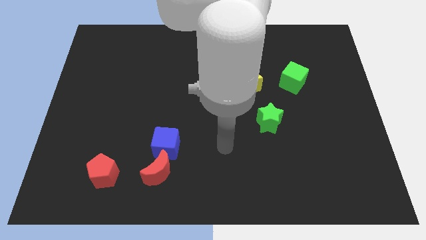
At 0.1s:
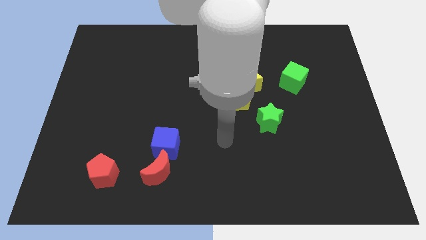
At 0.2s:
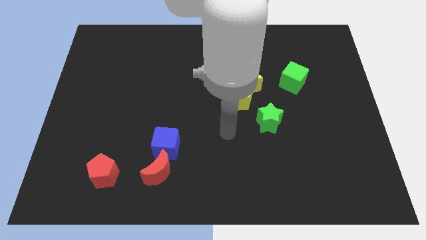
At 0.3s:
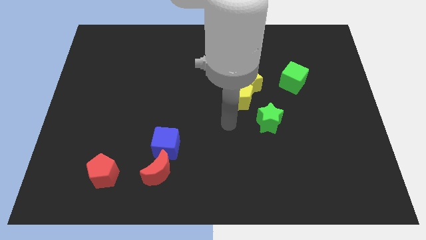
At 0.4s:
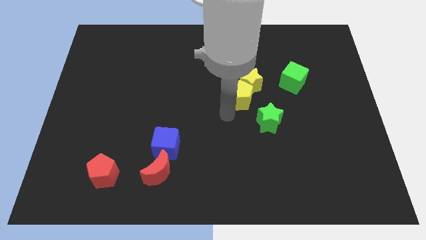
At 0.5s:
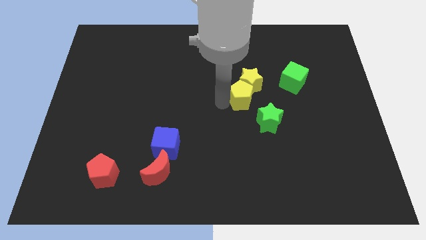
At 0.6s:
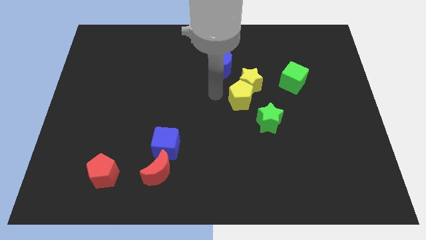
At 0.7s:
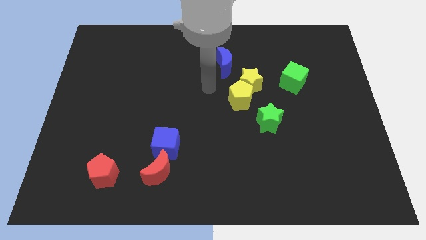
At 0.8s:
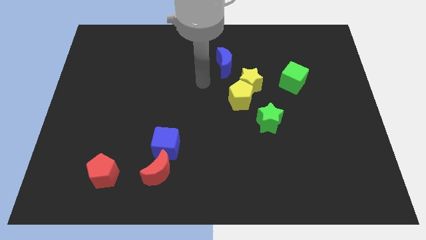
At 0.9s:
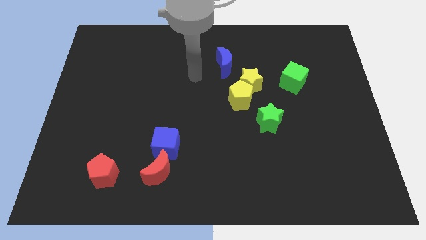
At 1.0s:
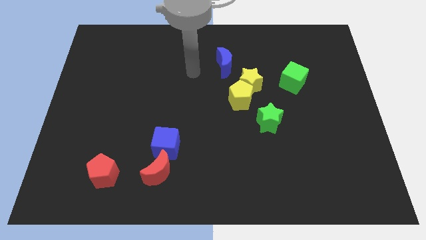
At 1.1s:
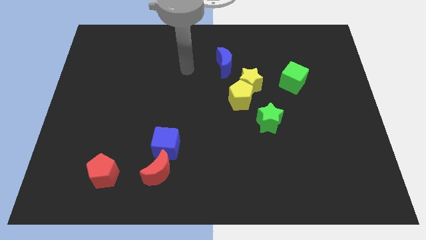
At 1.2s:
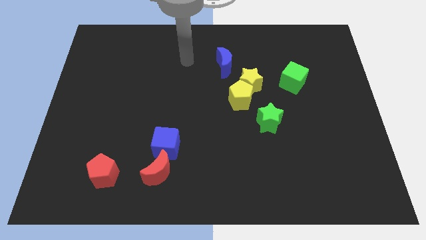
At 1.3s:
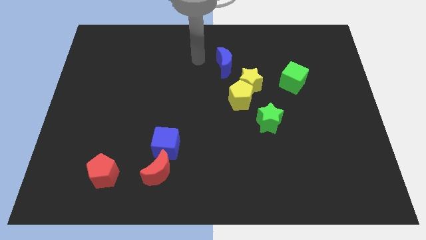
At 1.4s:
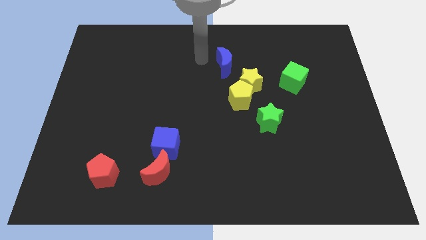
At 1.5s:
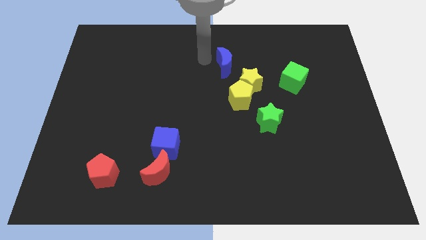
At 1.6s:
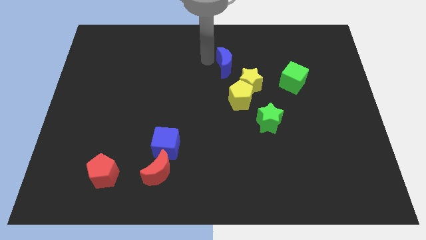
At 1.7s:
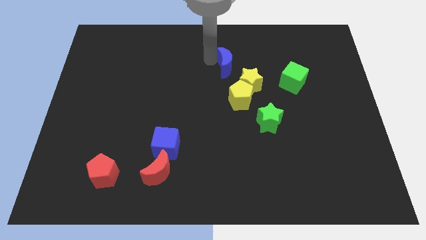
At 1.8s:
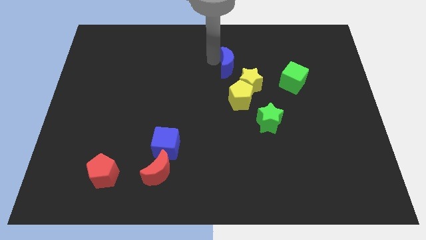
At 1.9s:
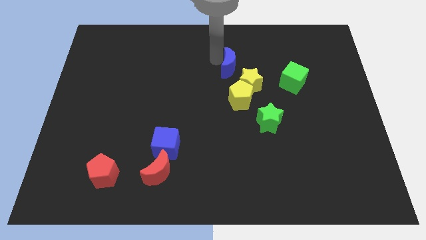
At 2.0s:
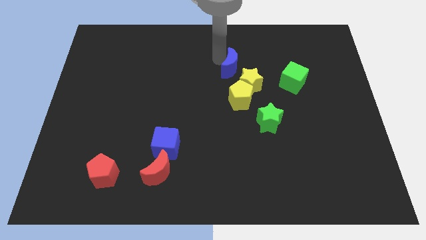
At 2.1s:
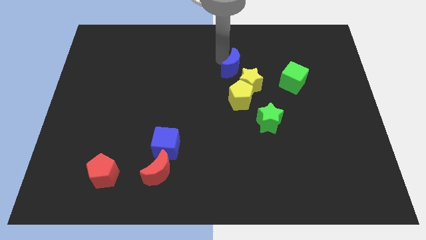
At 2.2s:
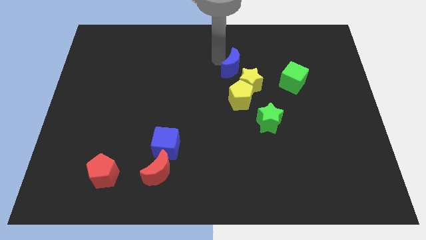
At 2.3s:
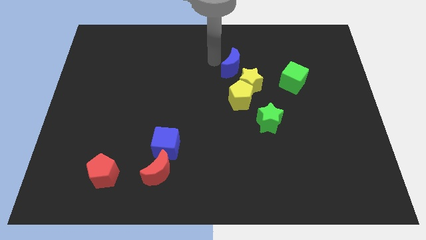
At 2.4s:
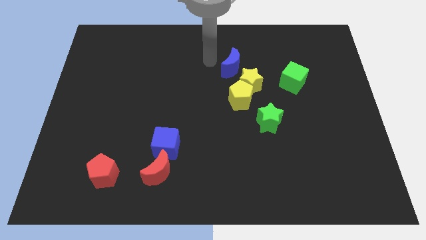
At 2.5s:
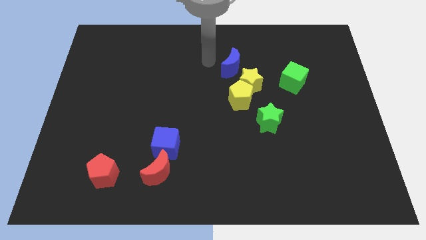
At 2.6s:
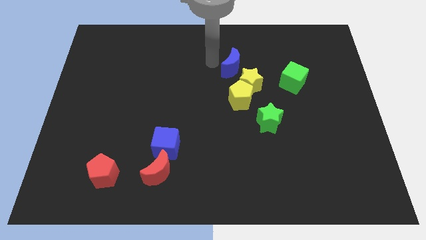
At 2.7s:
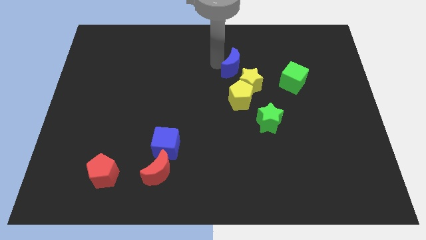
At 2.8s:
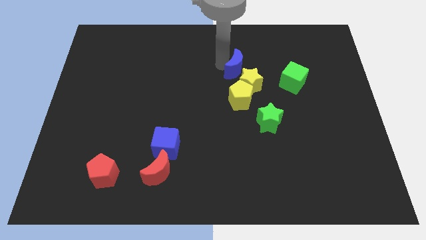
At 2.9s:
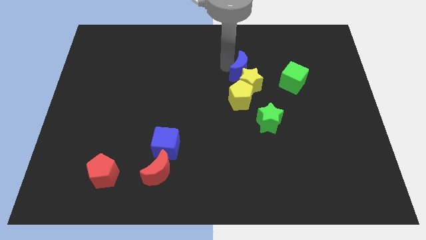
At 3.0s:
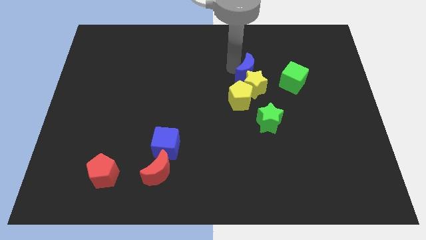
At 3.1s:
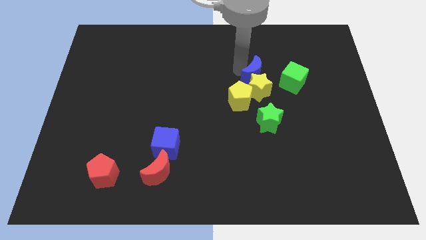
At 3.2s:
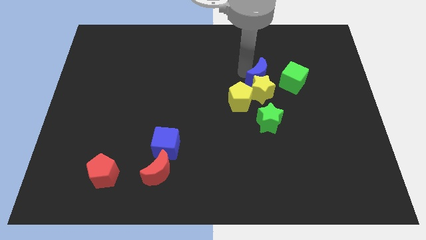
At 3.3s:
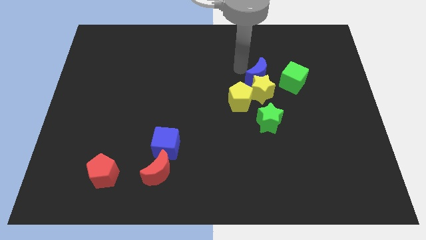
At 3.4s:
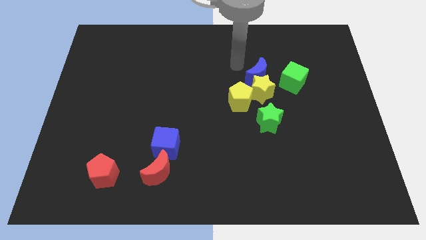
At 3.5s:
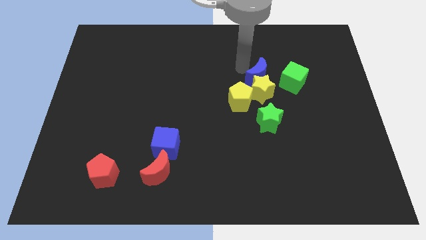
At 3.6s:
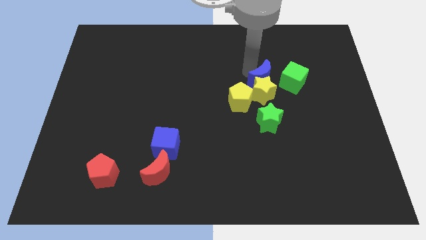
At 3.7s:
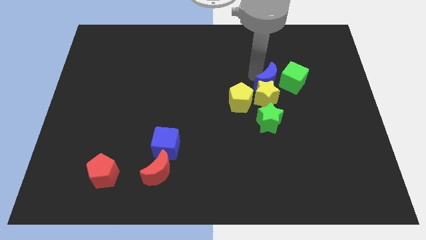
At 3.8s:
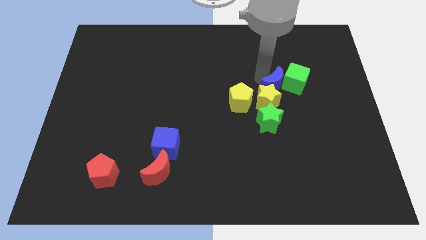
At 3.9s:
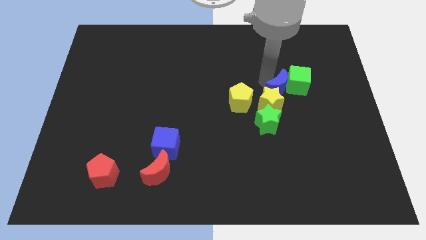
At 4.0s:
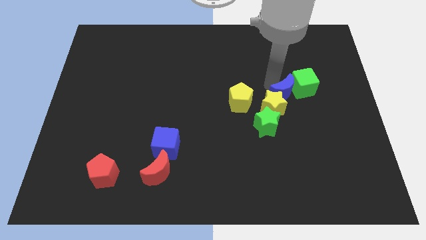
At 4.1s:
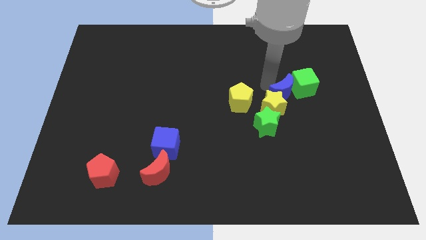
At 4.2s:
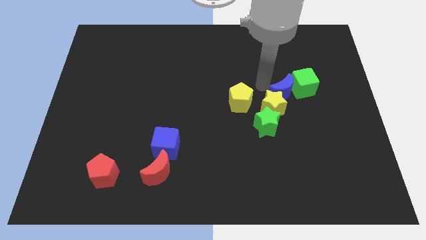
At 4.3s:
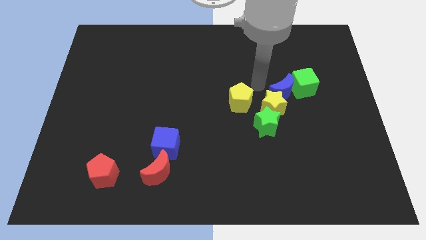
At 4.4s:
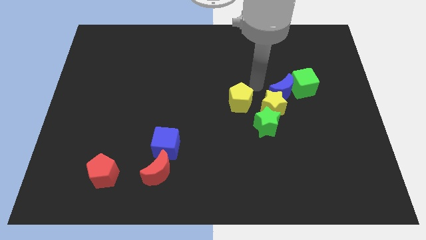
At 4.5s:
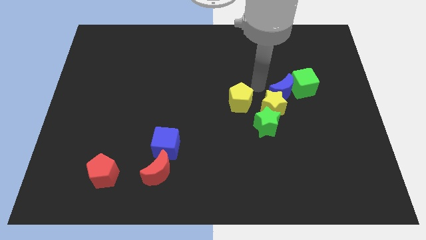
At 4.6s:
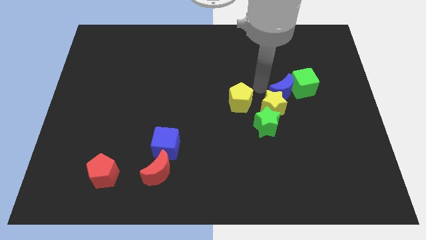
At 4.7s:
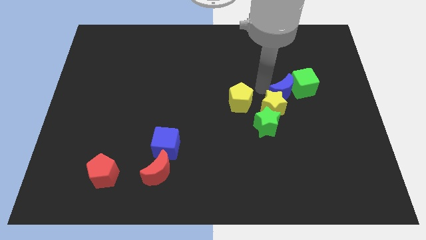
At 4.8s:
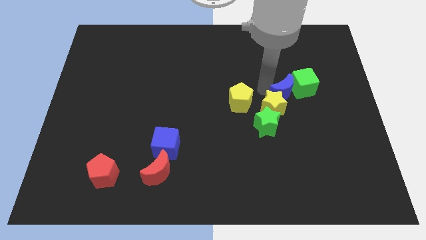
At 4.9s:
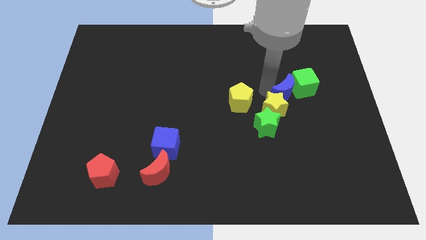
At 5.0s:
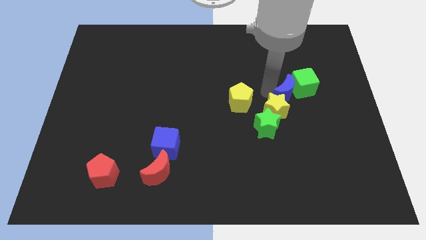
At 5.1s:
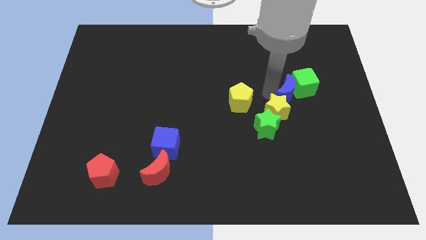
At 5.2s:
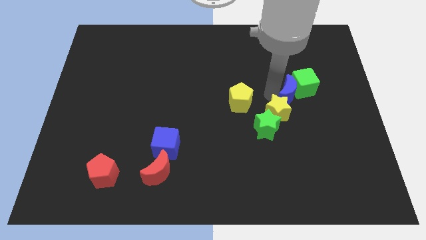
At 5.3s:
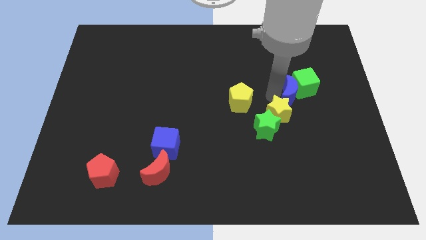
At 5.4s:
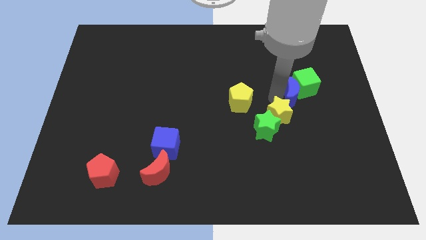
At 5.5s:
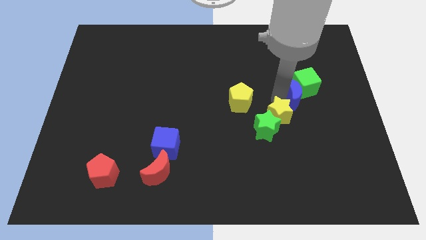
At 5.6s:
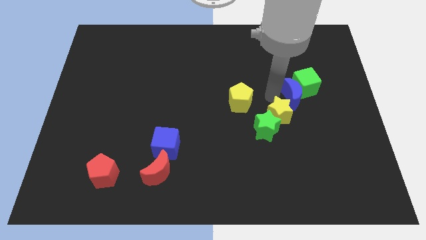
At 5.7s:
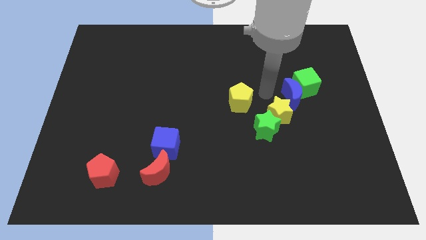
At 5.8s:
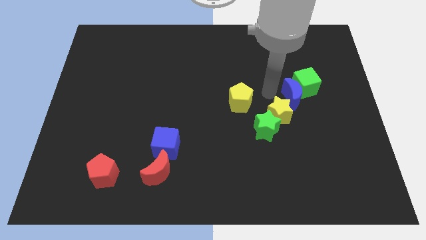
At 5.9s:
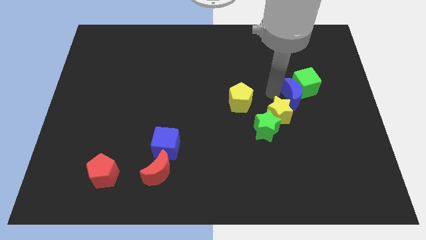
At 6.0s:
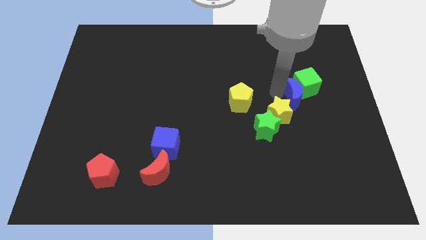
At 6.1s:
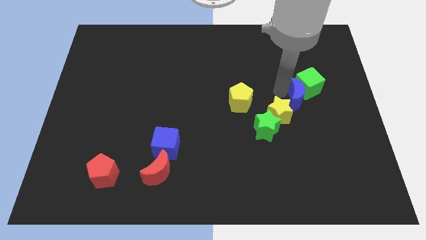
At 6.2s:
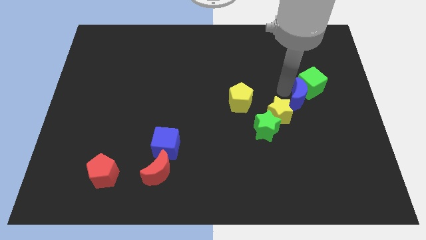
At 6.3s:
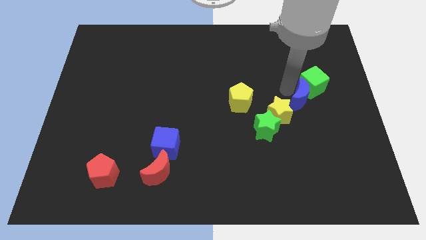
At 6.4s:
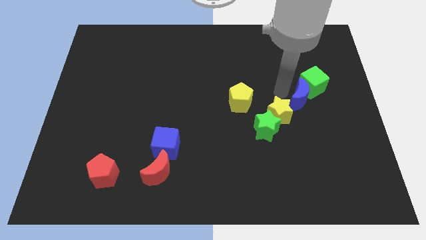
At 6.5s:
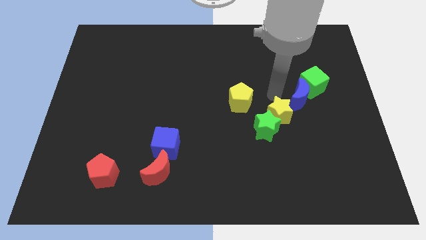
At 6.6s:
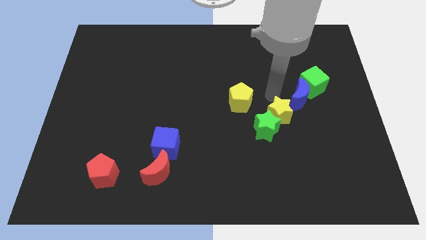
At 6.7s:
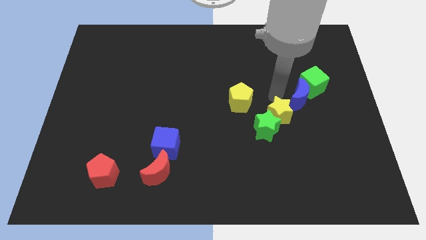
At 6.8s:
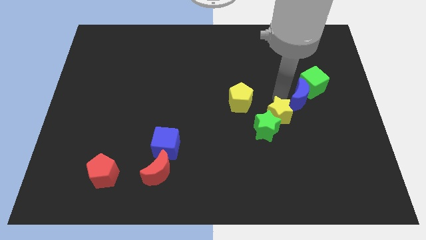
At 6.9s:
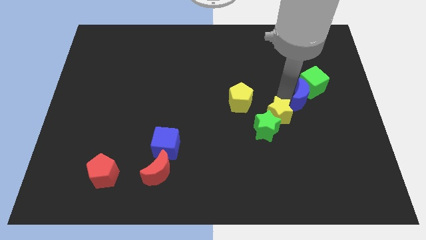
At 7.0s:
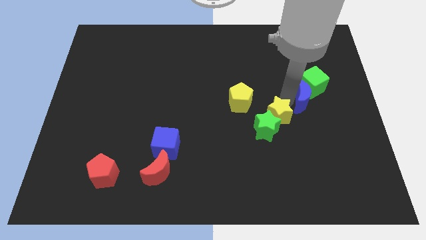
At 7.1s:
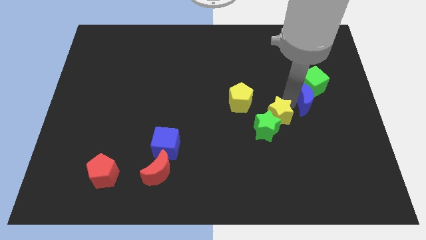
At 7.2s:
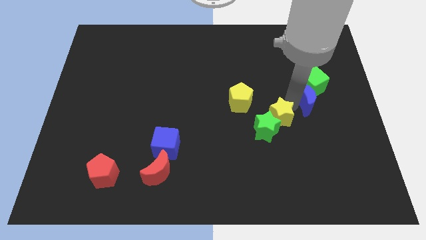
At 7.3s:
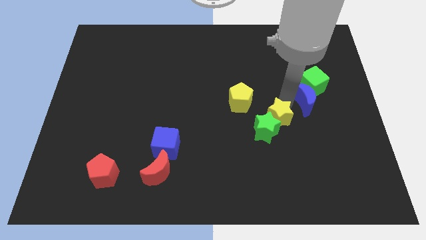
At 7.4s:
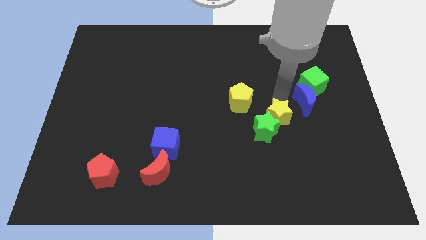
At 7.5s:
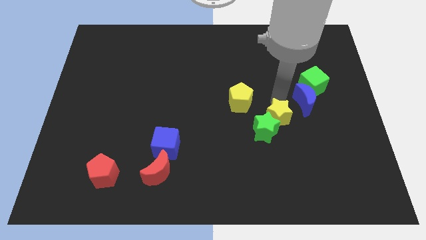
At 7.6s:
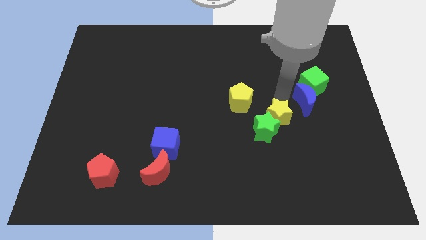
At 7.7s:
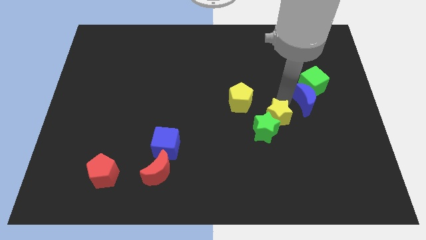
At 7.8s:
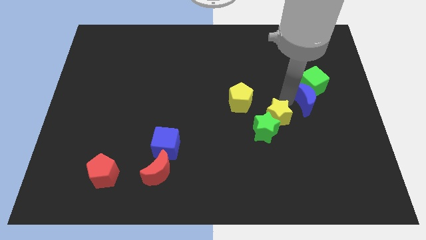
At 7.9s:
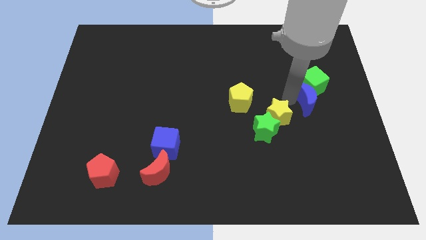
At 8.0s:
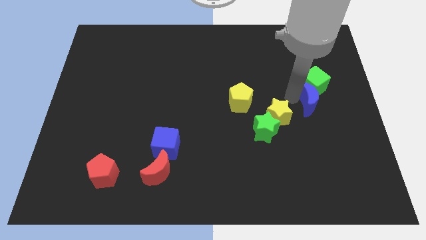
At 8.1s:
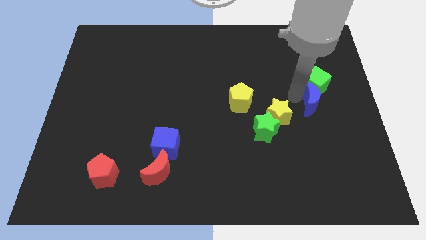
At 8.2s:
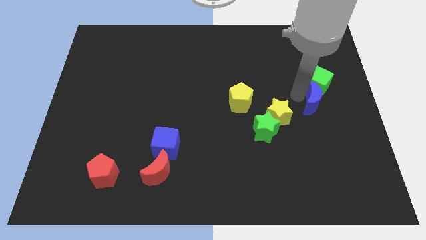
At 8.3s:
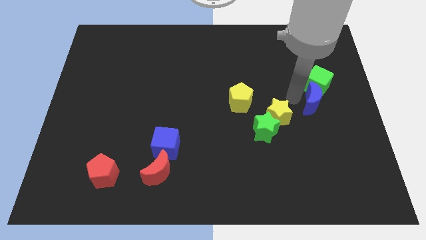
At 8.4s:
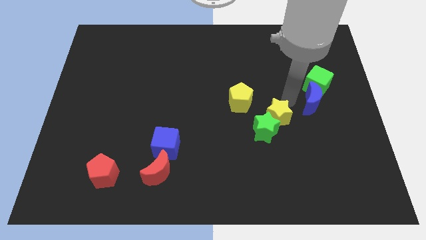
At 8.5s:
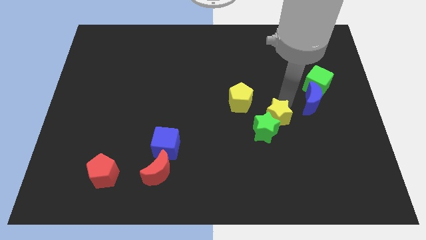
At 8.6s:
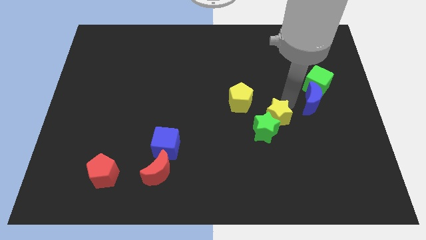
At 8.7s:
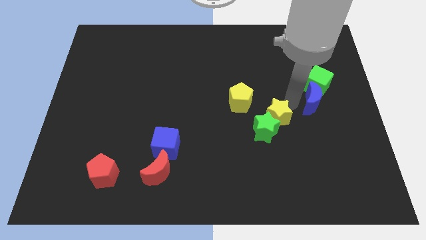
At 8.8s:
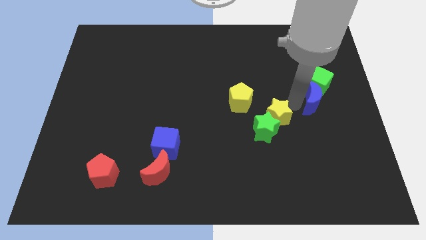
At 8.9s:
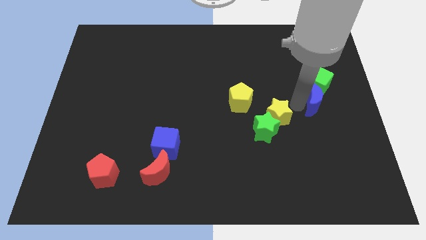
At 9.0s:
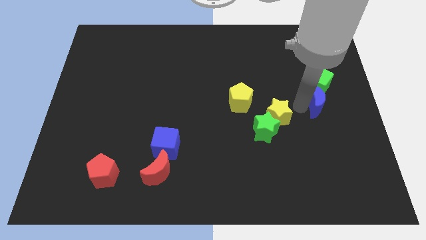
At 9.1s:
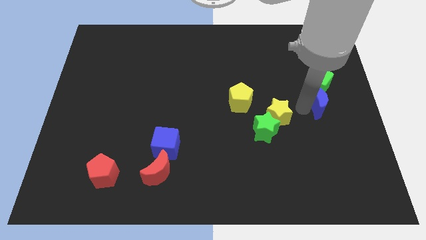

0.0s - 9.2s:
push the blue moon to the bottom right side of the green cube
